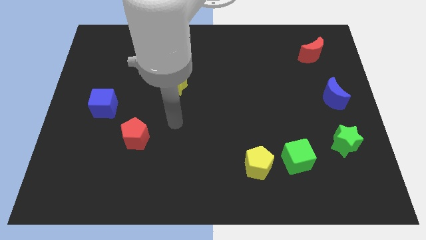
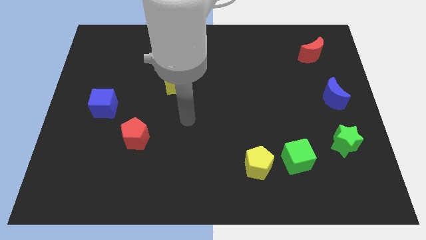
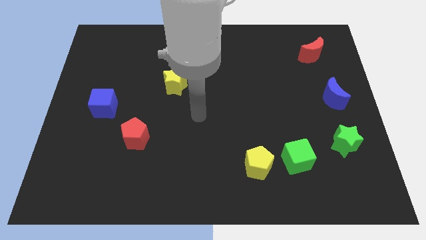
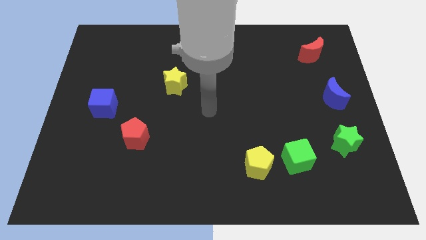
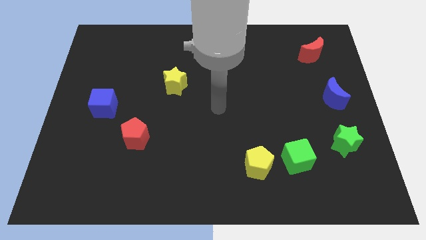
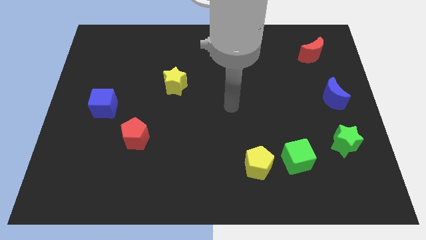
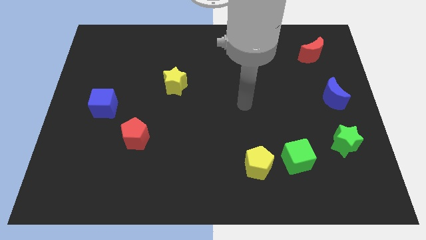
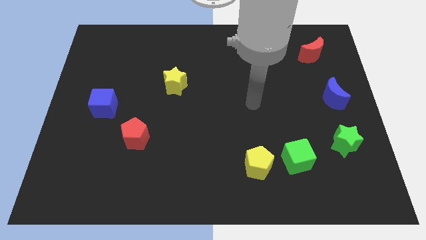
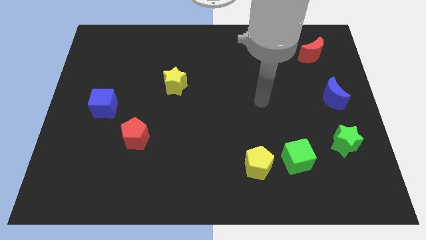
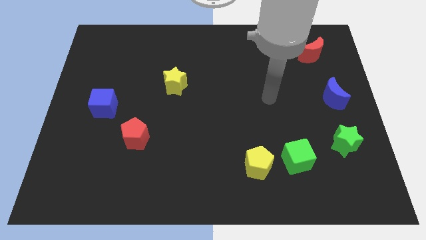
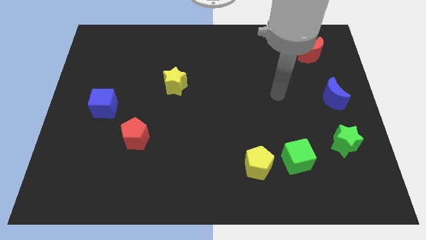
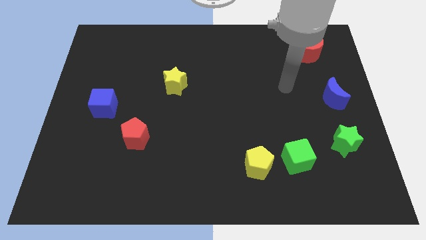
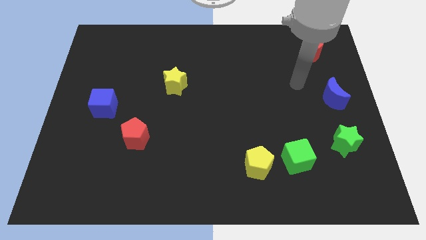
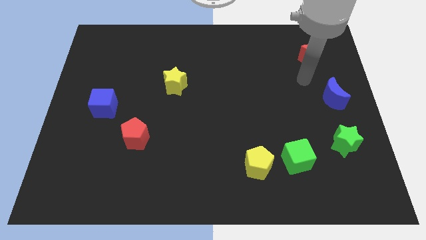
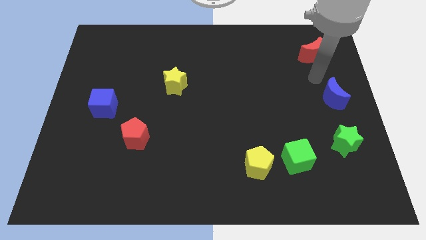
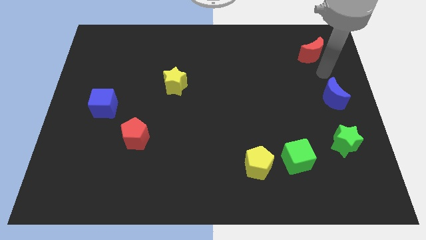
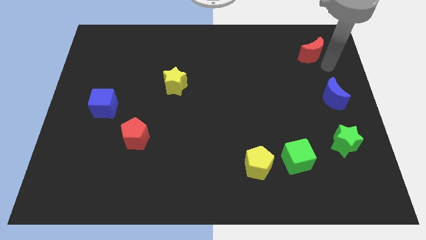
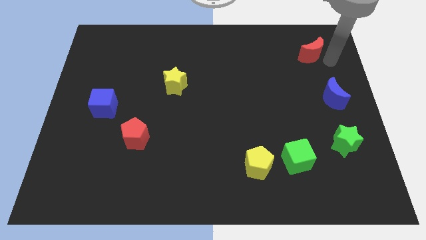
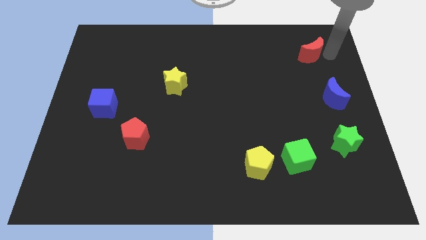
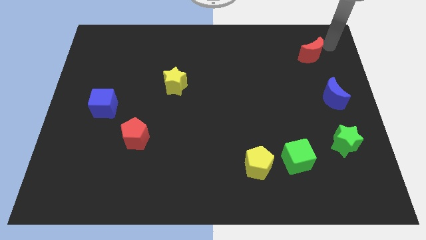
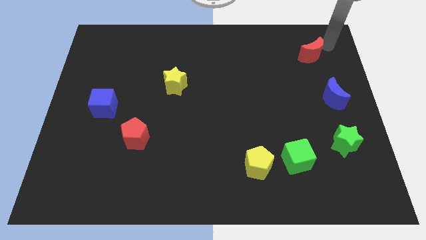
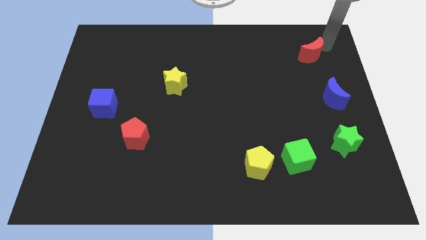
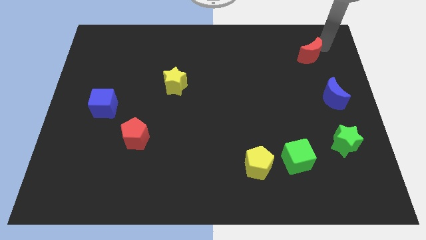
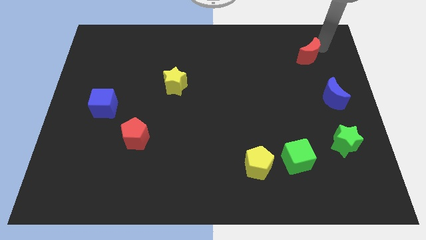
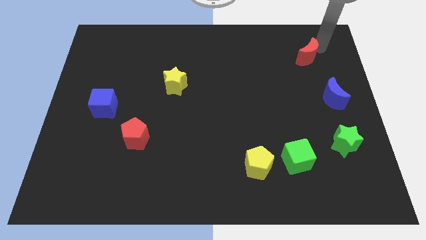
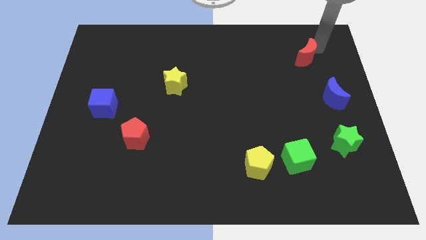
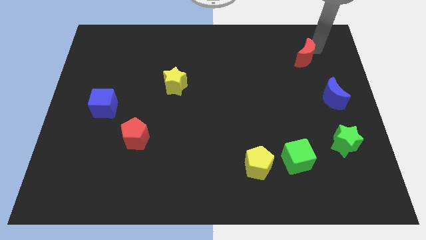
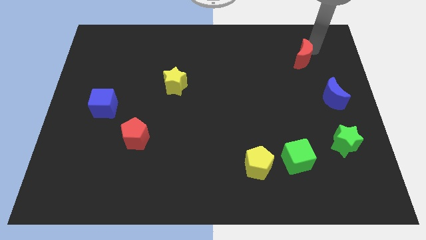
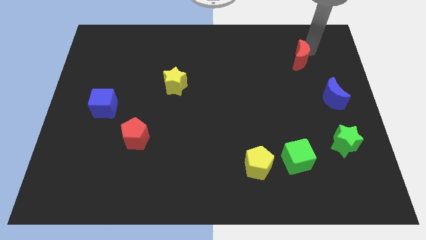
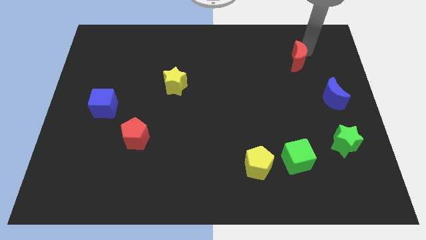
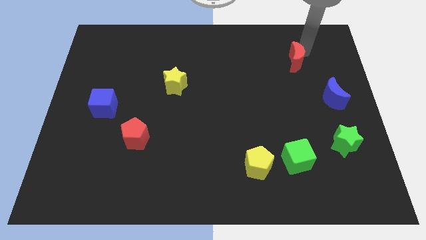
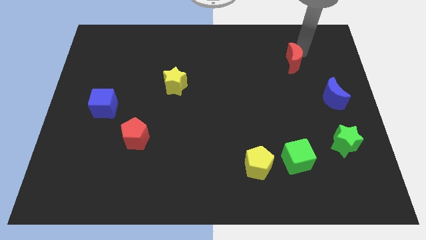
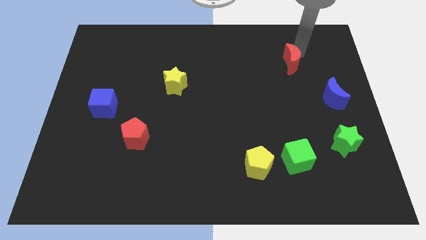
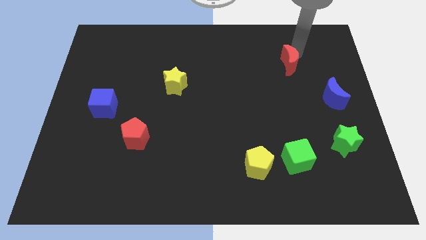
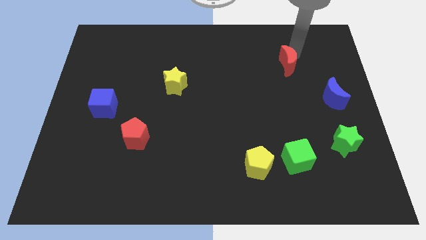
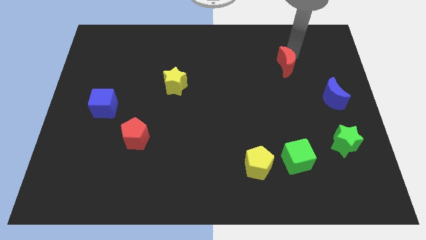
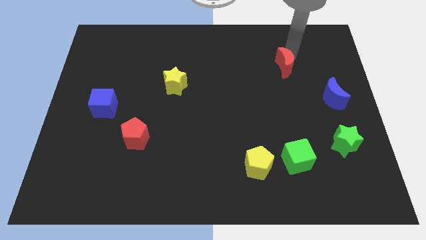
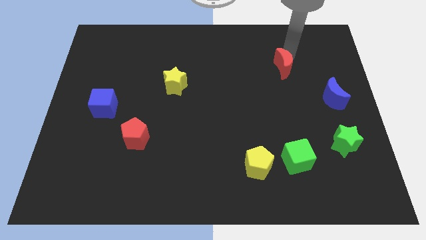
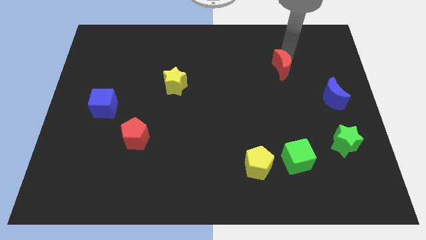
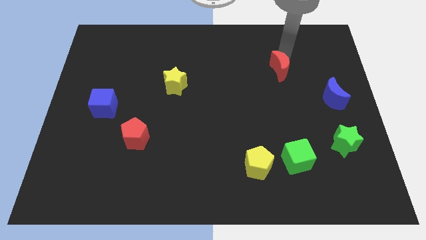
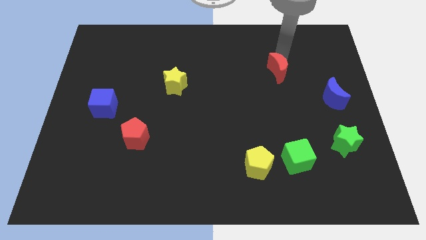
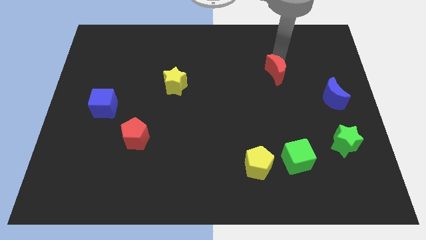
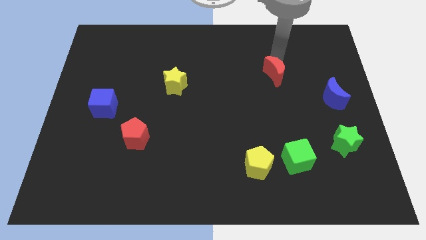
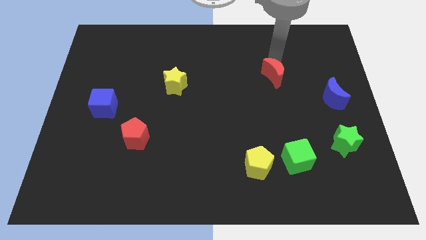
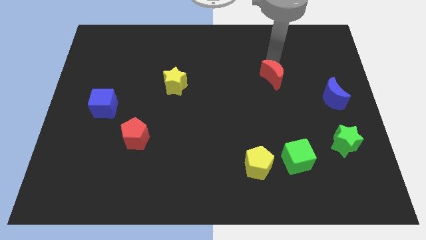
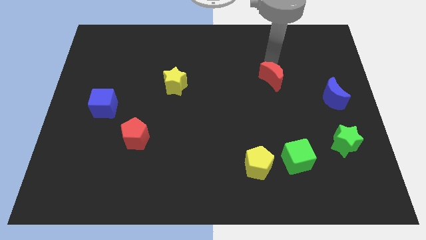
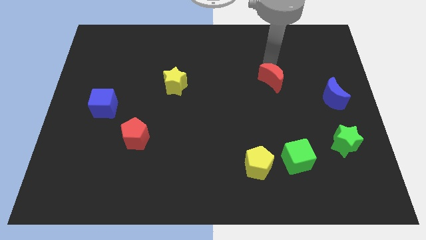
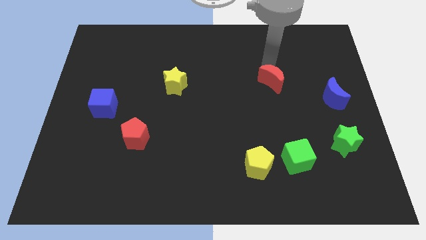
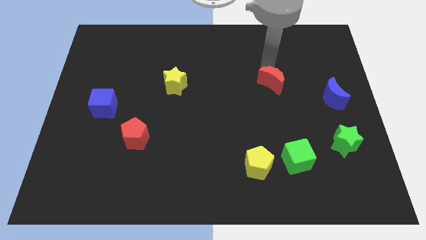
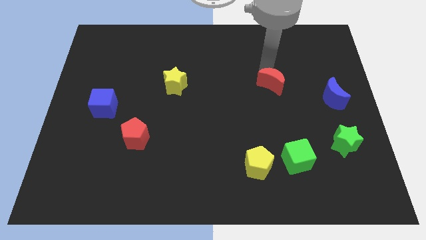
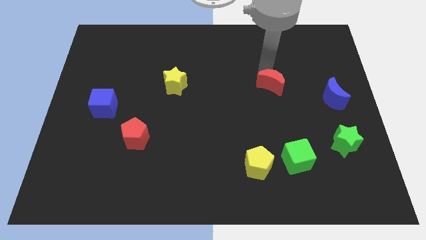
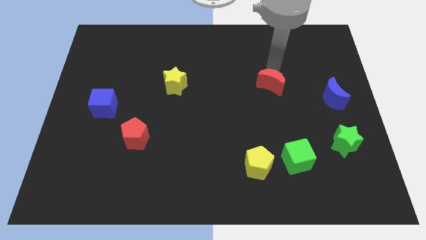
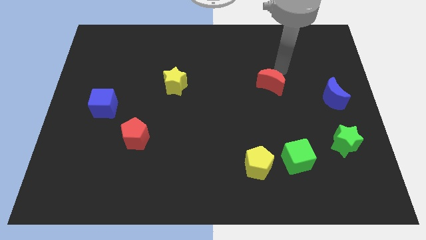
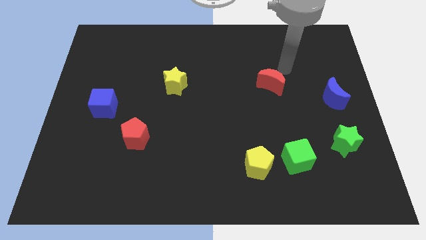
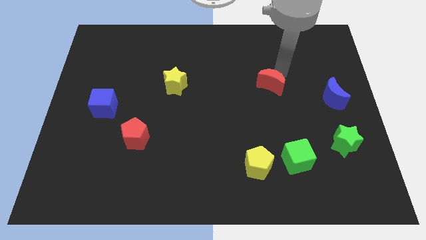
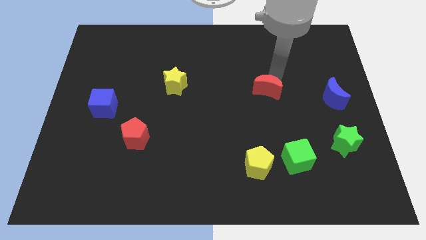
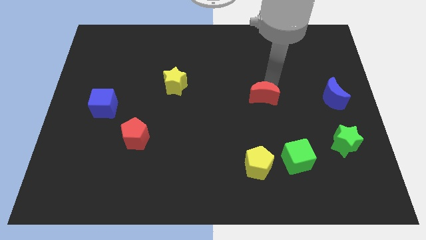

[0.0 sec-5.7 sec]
push the red moon diagonally down and to the left

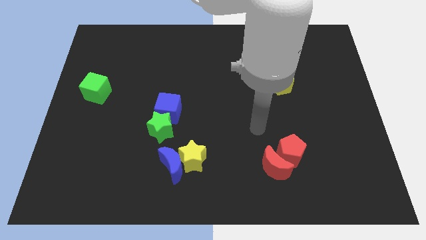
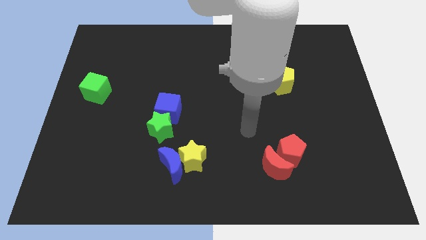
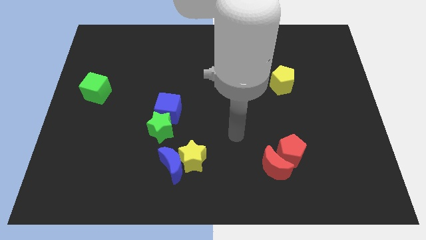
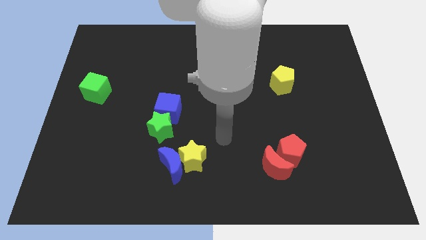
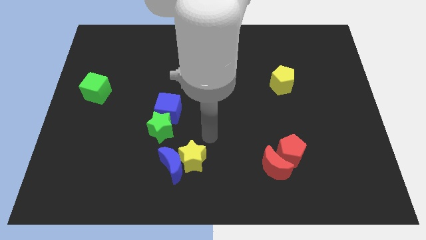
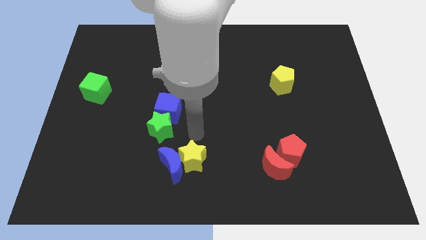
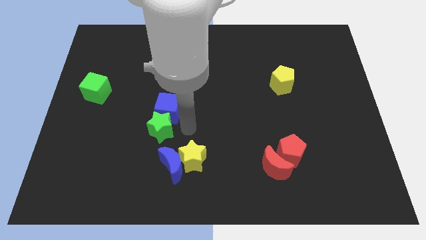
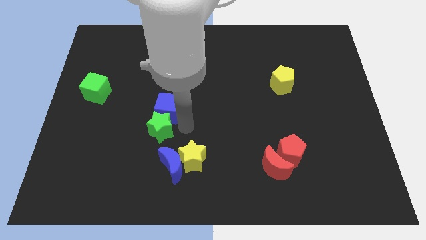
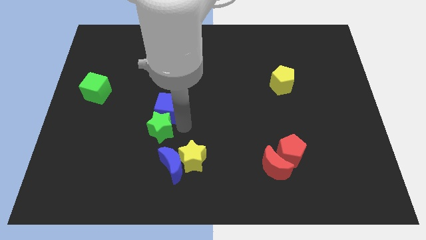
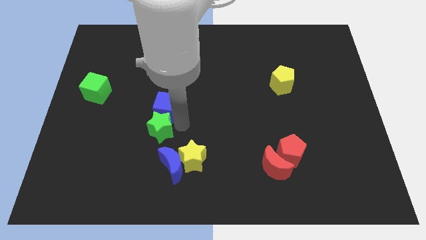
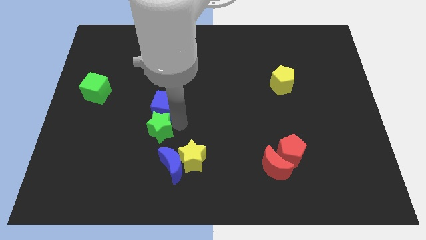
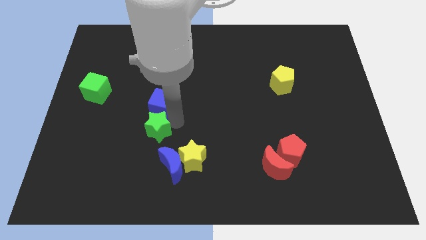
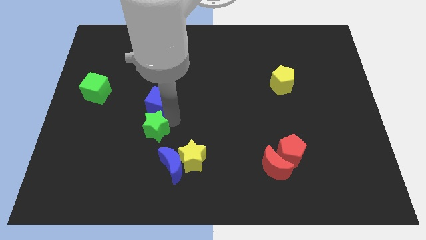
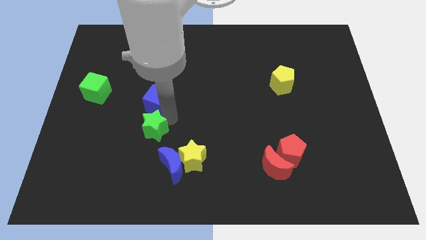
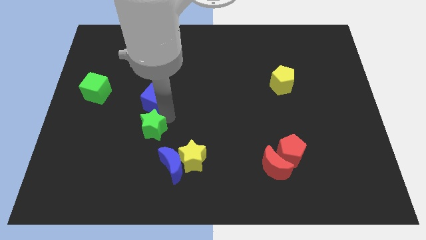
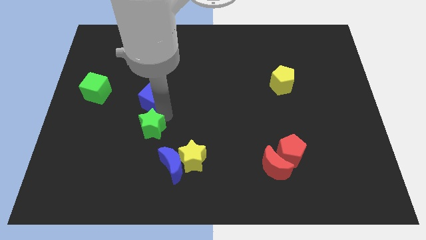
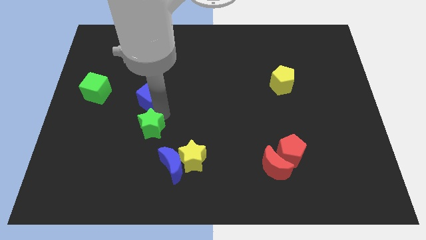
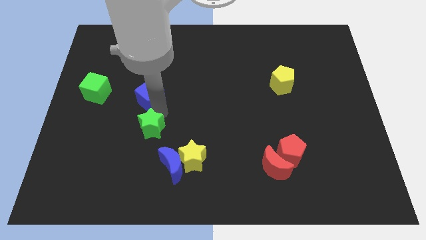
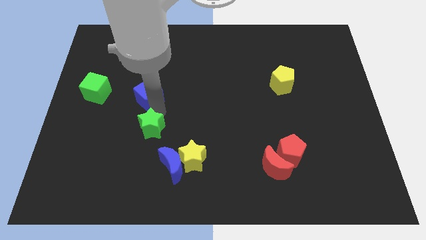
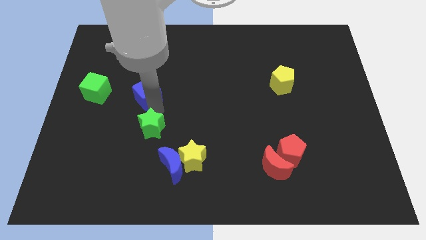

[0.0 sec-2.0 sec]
slide the blue cube upwards and to the left somewhat

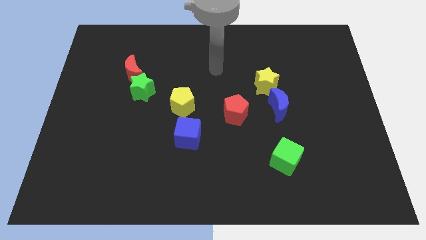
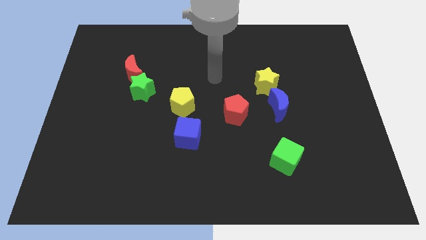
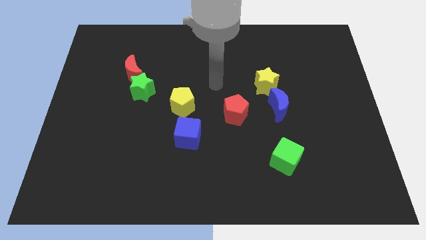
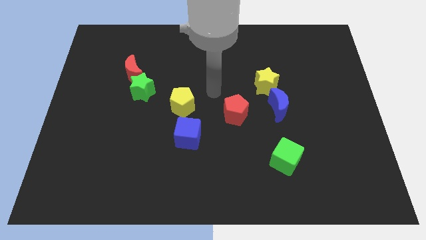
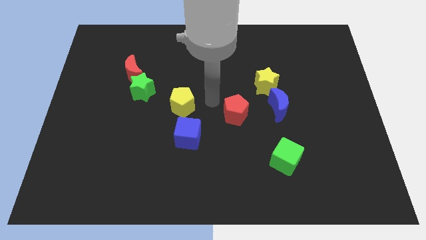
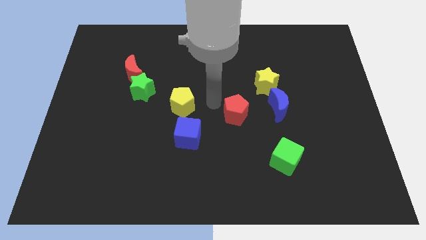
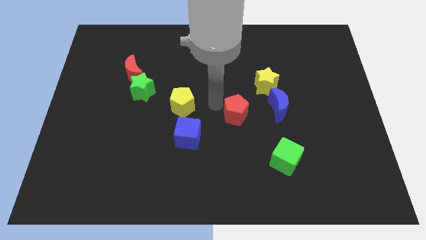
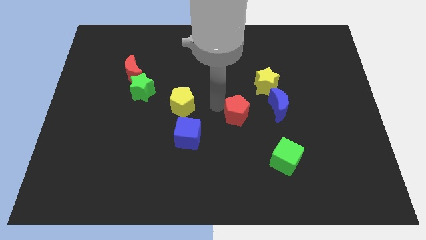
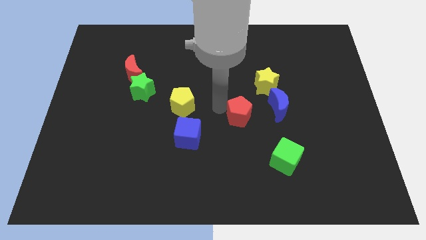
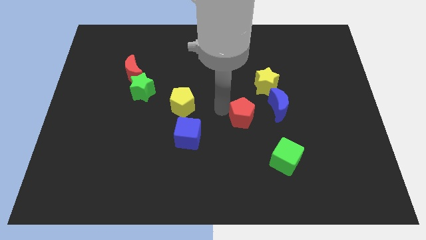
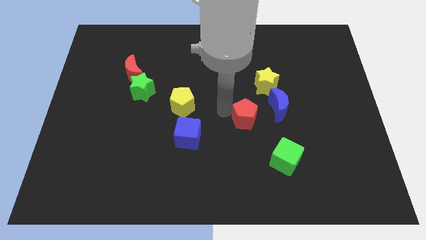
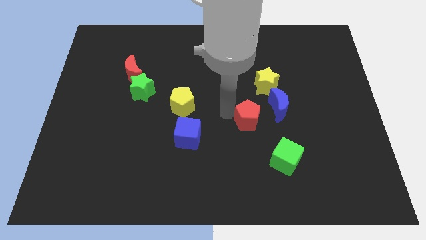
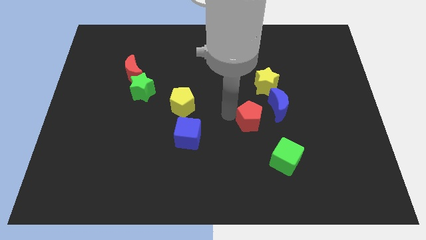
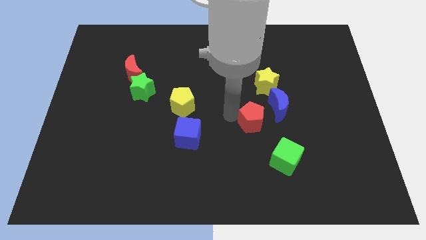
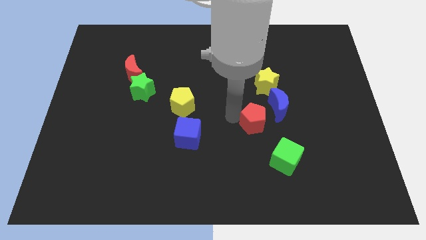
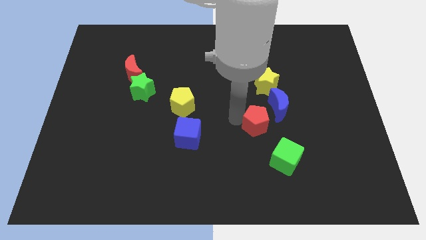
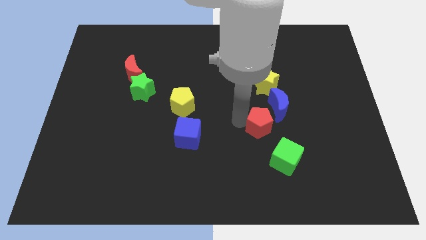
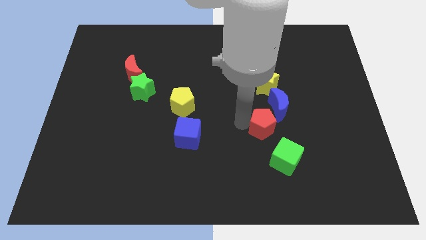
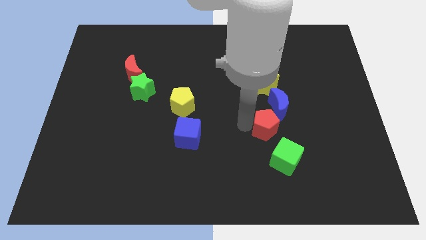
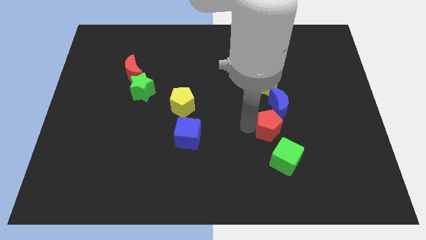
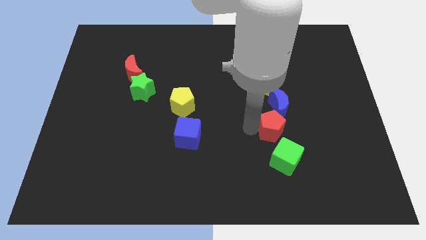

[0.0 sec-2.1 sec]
slide the red pentagon to the right a little
